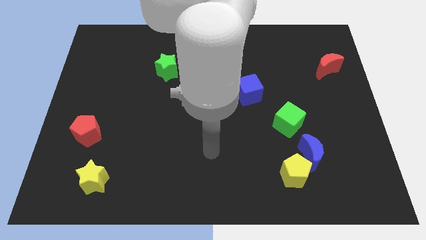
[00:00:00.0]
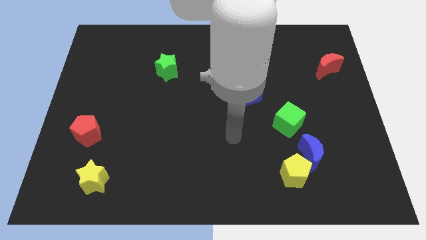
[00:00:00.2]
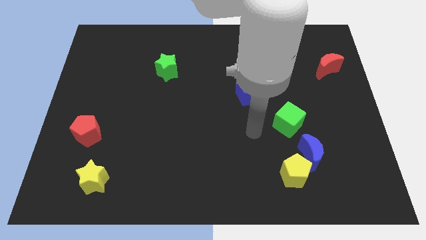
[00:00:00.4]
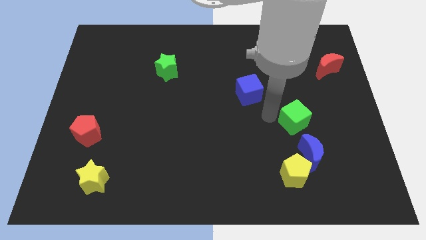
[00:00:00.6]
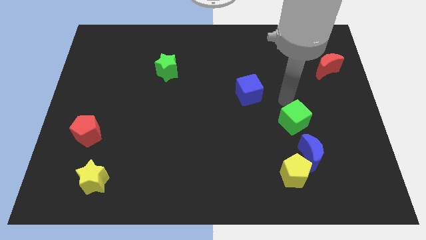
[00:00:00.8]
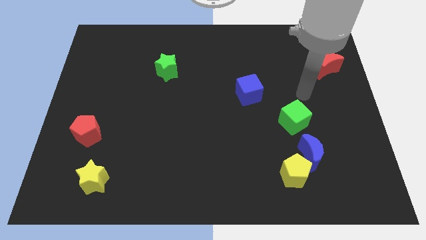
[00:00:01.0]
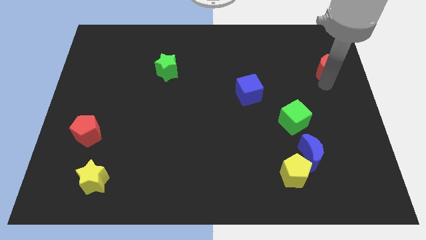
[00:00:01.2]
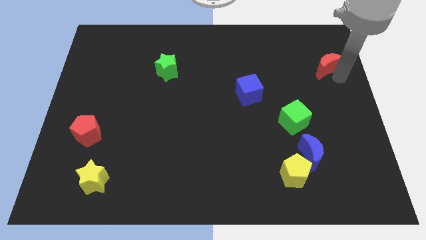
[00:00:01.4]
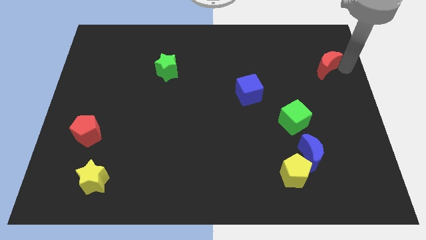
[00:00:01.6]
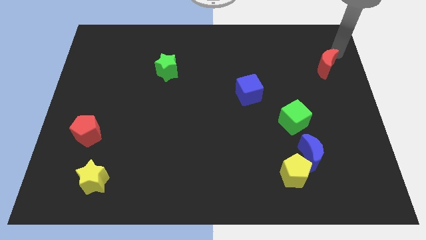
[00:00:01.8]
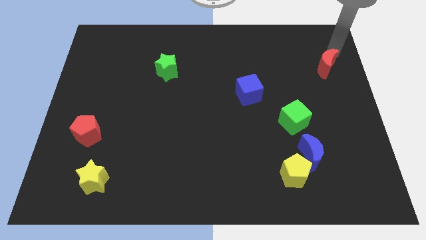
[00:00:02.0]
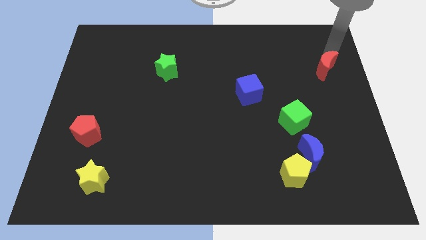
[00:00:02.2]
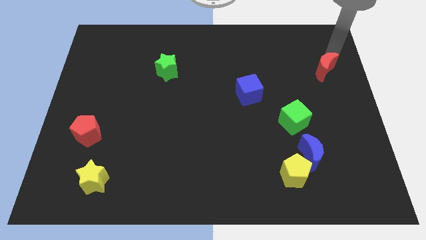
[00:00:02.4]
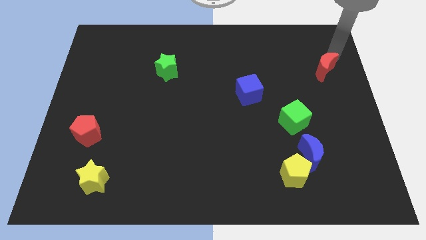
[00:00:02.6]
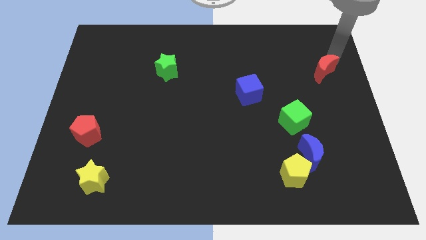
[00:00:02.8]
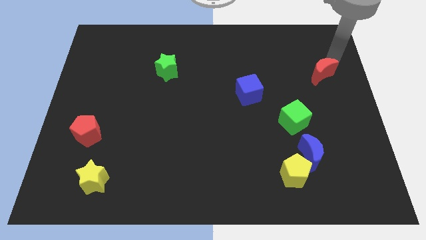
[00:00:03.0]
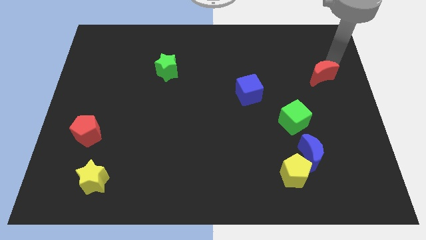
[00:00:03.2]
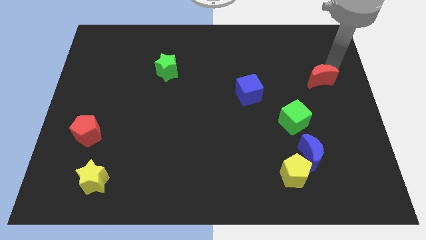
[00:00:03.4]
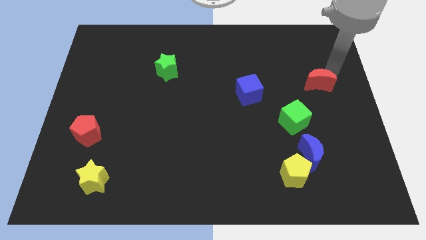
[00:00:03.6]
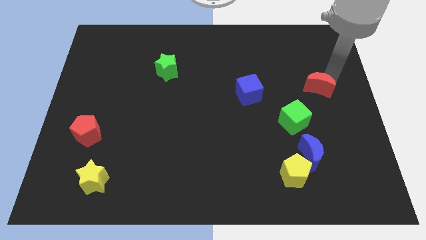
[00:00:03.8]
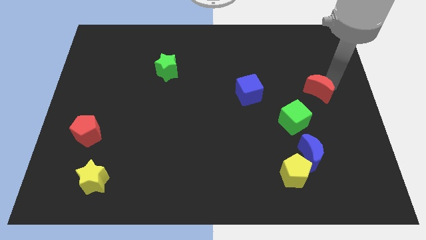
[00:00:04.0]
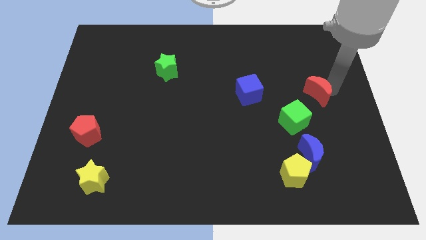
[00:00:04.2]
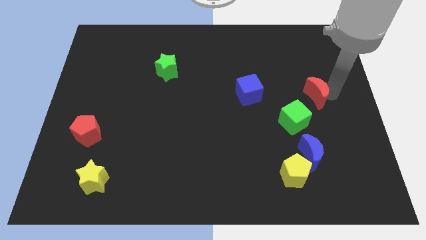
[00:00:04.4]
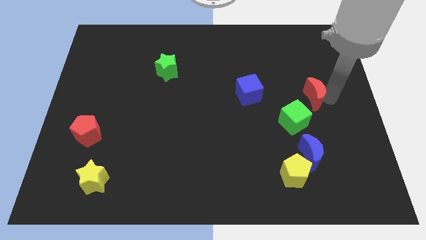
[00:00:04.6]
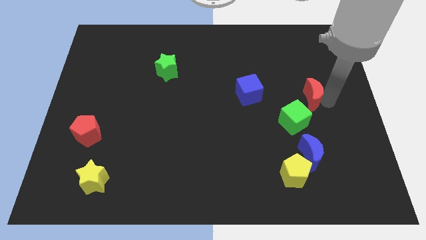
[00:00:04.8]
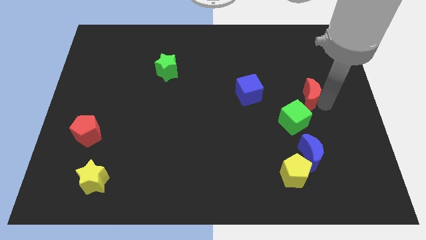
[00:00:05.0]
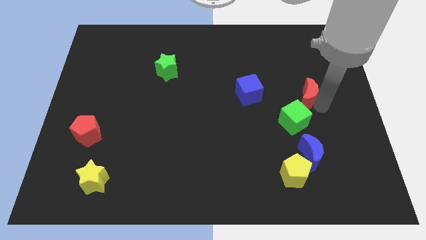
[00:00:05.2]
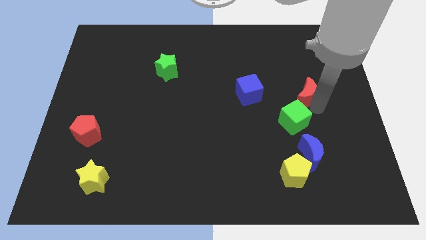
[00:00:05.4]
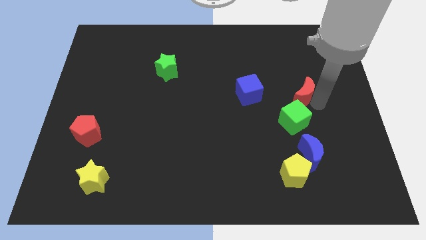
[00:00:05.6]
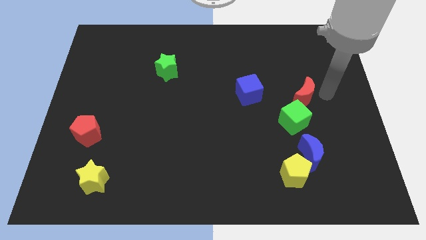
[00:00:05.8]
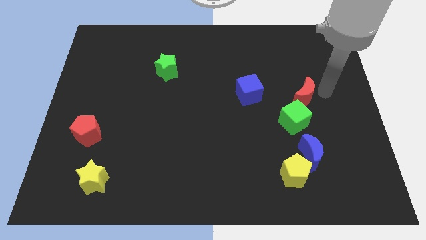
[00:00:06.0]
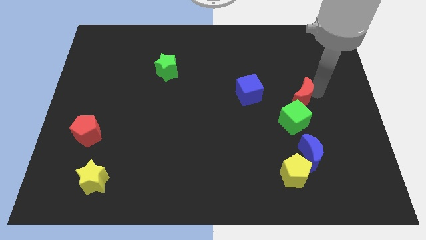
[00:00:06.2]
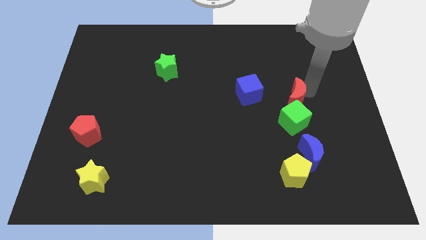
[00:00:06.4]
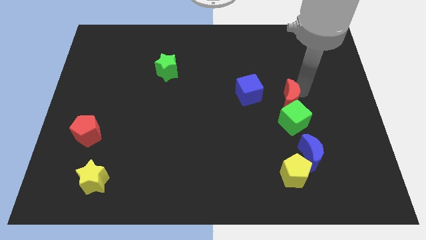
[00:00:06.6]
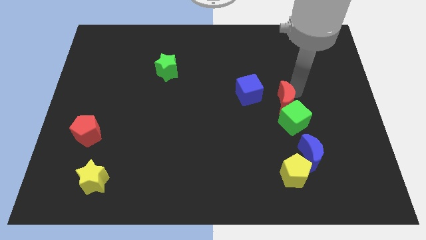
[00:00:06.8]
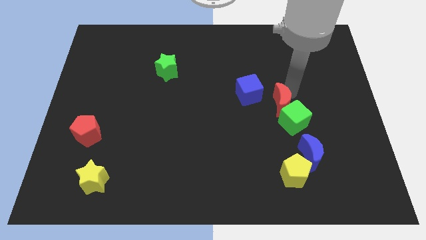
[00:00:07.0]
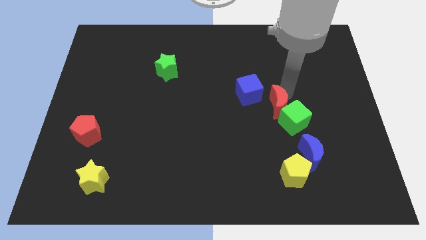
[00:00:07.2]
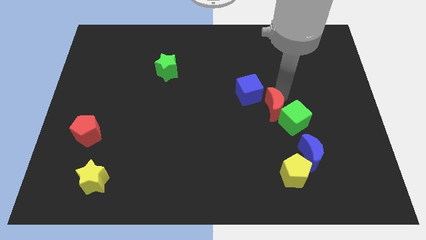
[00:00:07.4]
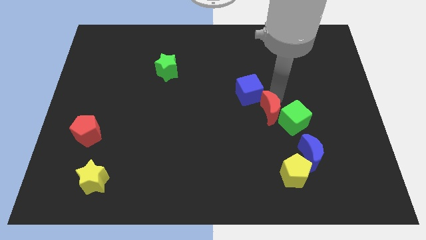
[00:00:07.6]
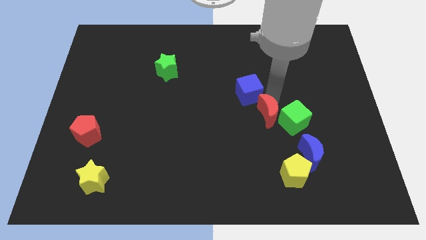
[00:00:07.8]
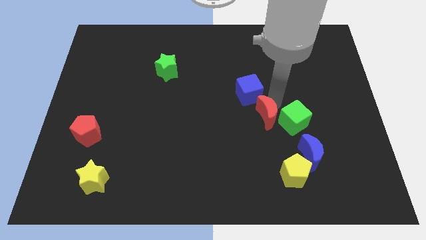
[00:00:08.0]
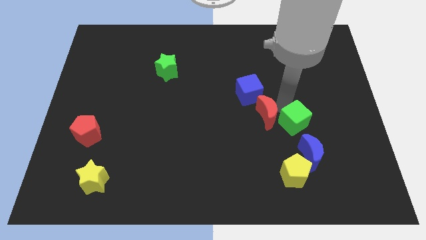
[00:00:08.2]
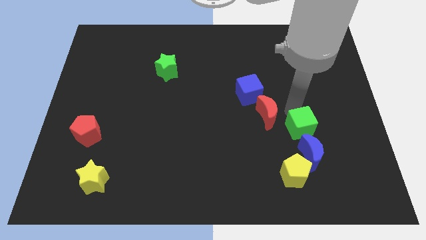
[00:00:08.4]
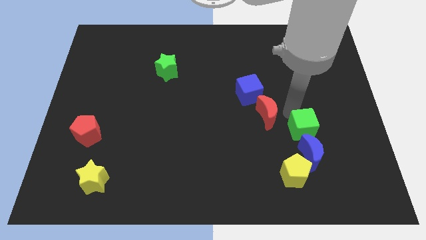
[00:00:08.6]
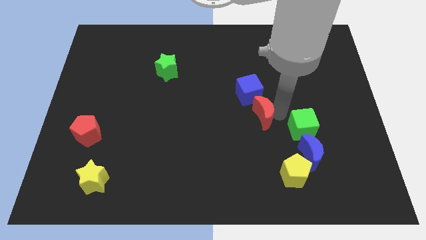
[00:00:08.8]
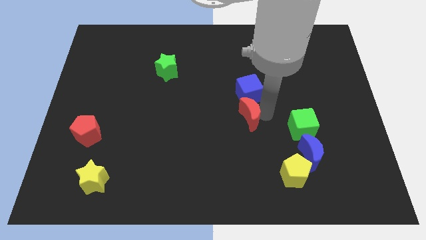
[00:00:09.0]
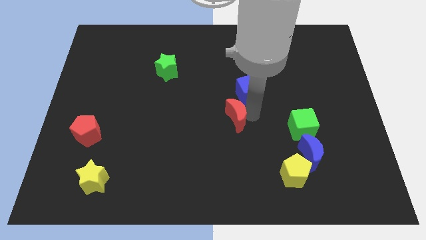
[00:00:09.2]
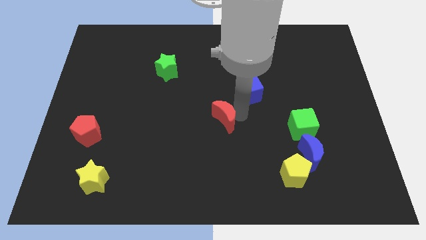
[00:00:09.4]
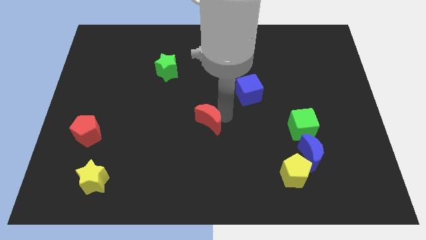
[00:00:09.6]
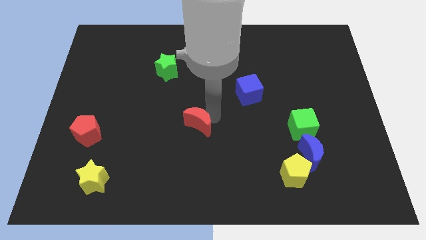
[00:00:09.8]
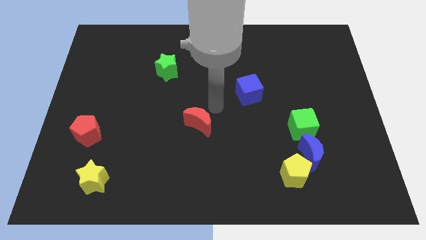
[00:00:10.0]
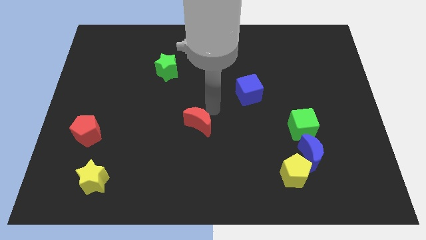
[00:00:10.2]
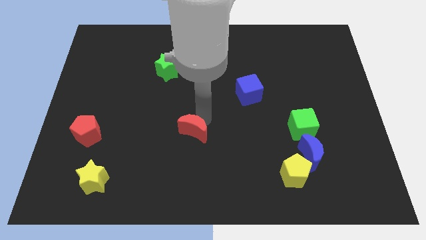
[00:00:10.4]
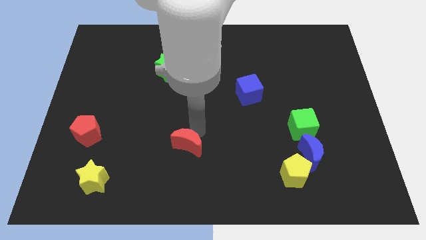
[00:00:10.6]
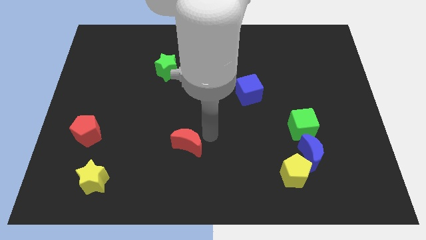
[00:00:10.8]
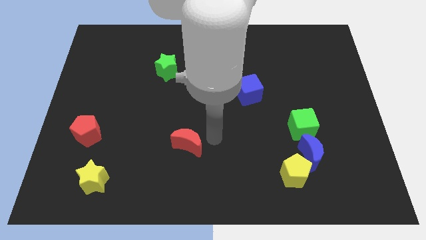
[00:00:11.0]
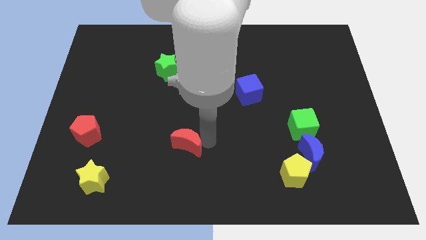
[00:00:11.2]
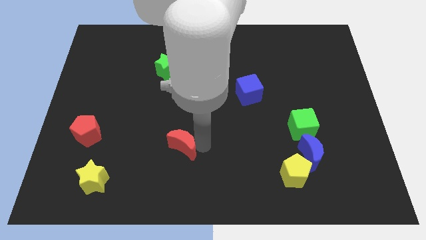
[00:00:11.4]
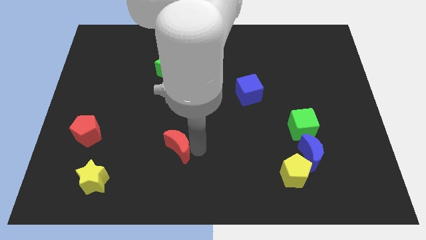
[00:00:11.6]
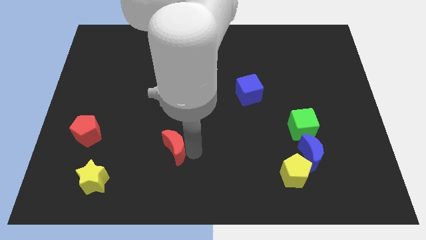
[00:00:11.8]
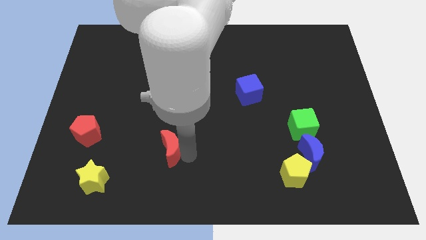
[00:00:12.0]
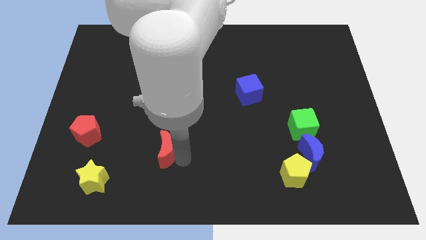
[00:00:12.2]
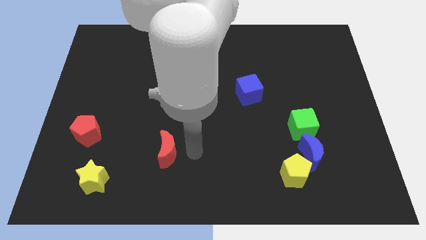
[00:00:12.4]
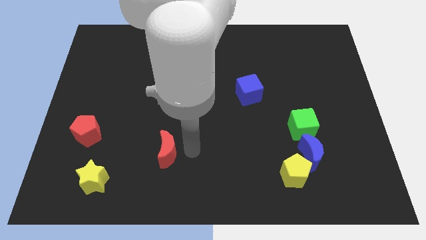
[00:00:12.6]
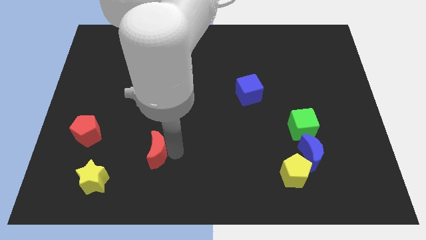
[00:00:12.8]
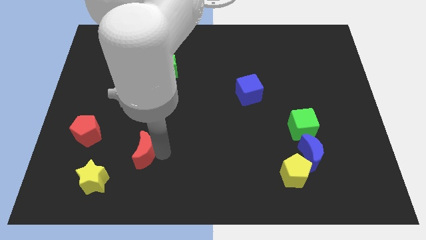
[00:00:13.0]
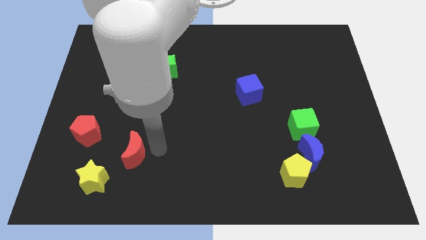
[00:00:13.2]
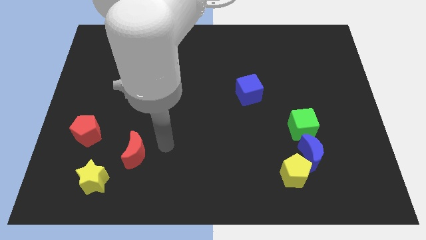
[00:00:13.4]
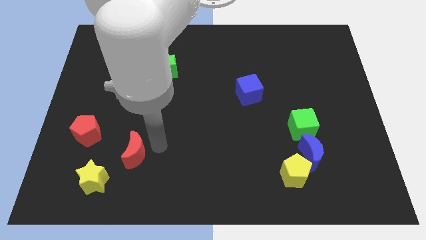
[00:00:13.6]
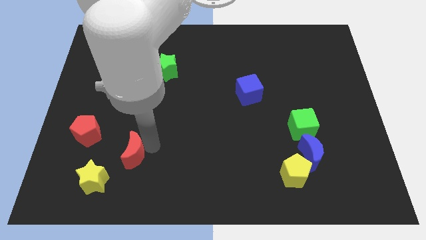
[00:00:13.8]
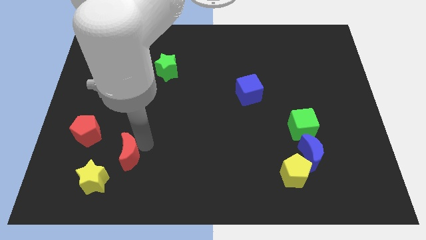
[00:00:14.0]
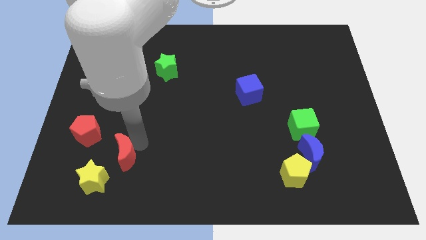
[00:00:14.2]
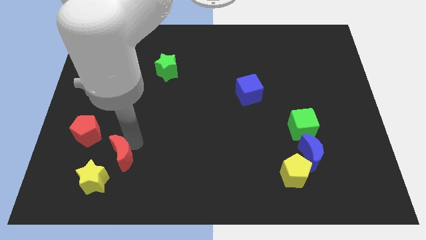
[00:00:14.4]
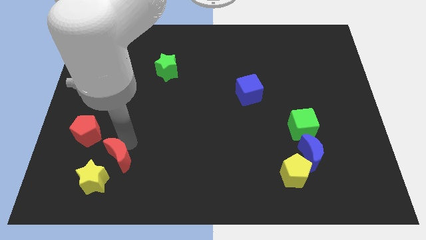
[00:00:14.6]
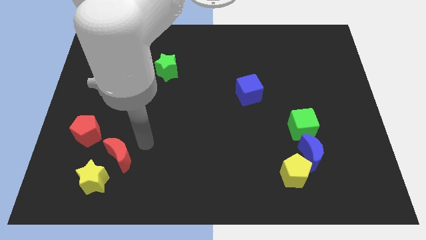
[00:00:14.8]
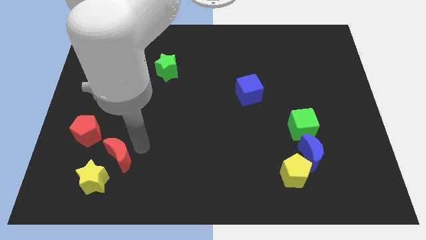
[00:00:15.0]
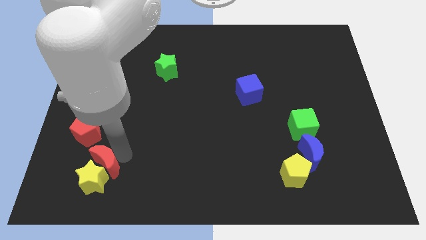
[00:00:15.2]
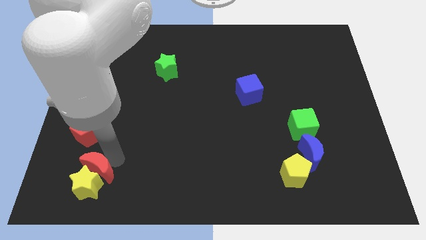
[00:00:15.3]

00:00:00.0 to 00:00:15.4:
put the red moon below the red pentagon
